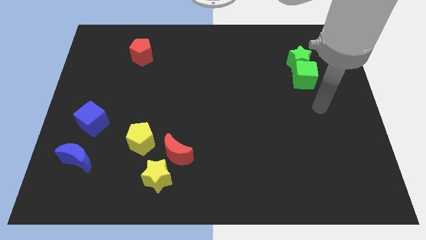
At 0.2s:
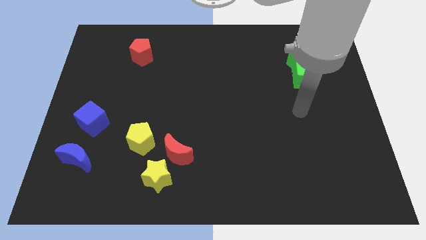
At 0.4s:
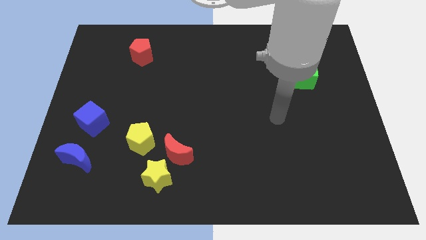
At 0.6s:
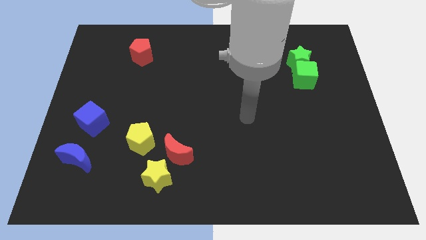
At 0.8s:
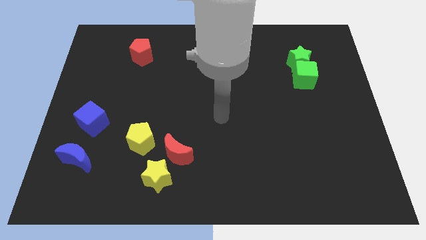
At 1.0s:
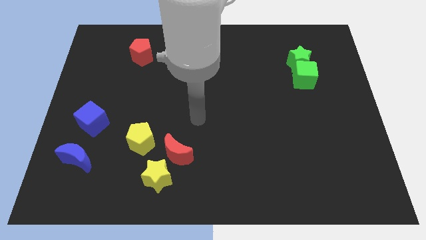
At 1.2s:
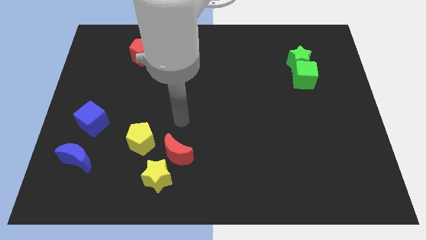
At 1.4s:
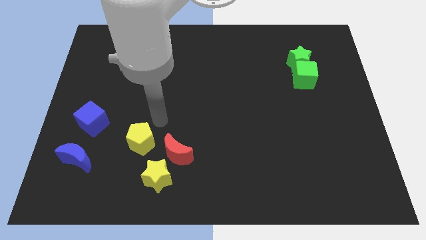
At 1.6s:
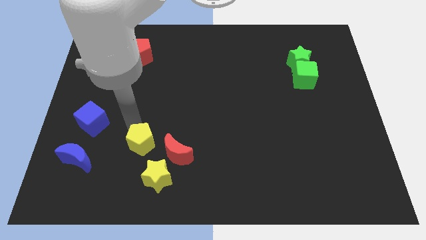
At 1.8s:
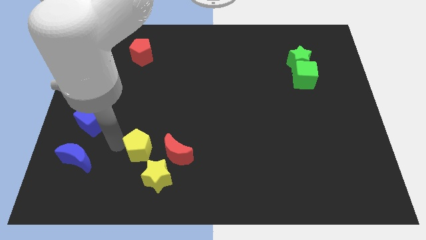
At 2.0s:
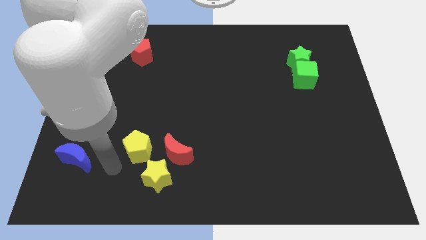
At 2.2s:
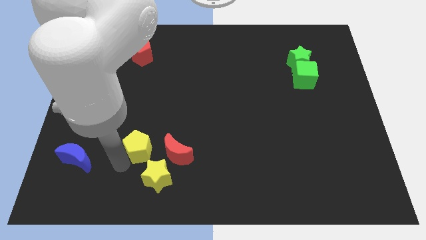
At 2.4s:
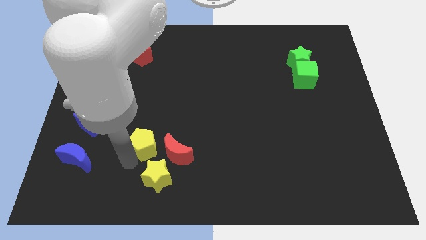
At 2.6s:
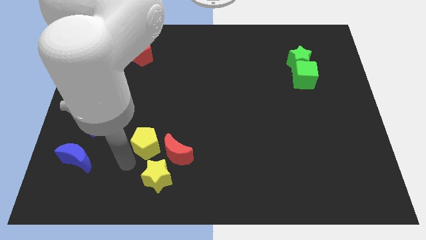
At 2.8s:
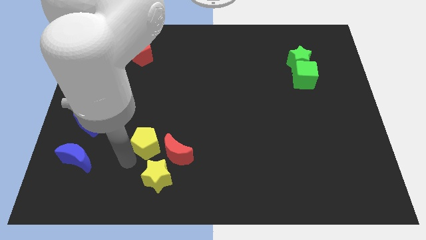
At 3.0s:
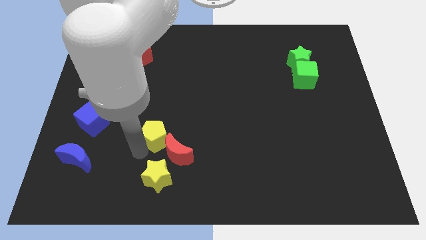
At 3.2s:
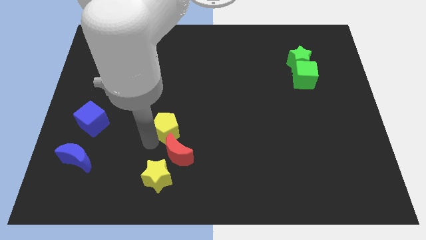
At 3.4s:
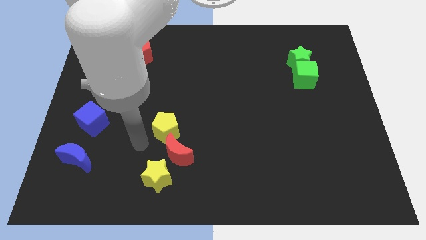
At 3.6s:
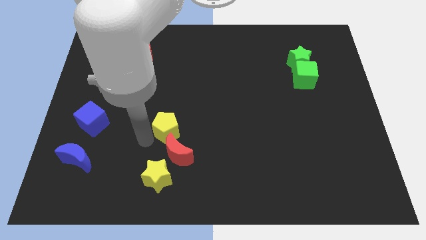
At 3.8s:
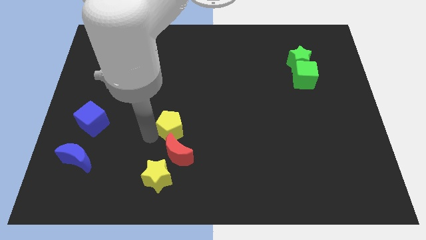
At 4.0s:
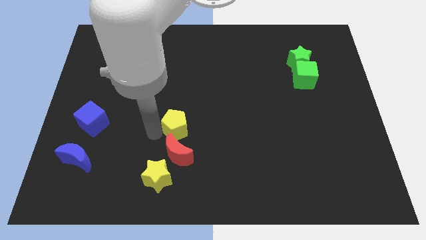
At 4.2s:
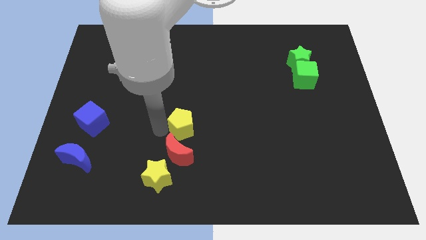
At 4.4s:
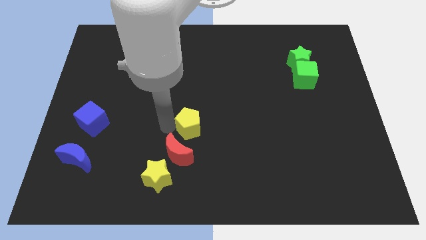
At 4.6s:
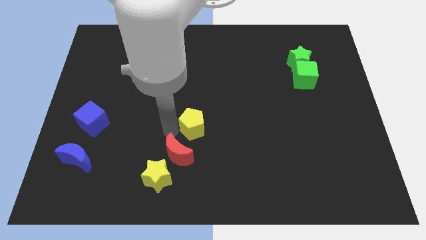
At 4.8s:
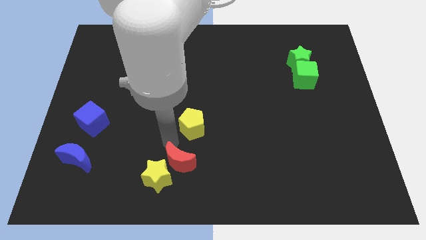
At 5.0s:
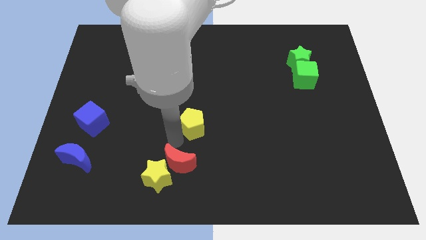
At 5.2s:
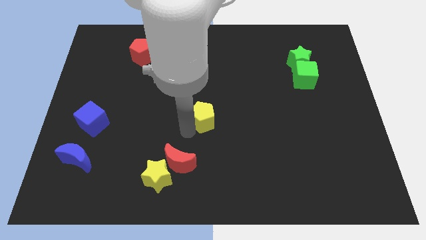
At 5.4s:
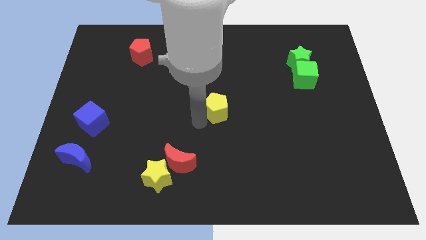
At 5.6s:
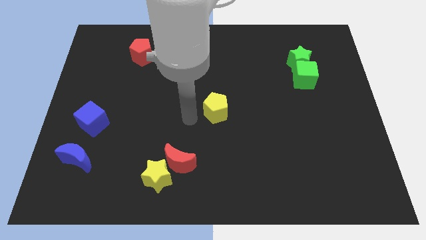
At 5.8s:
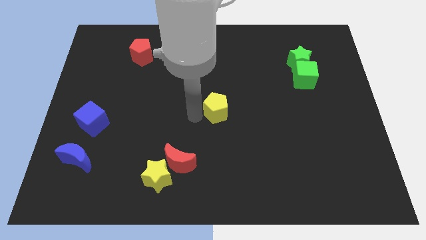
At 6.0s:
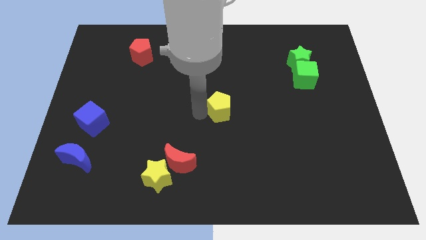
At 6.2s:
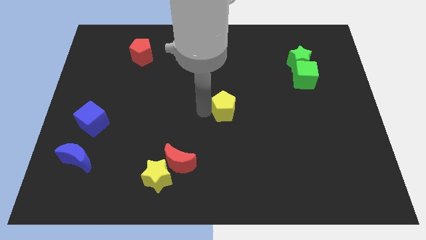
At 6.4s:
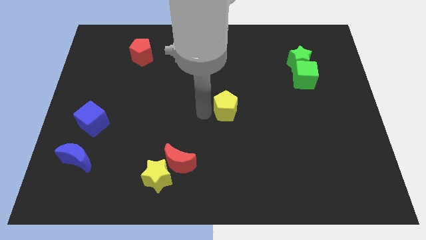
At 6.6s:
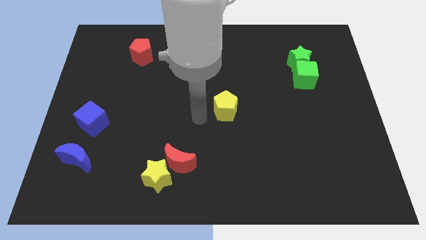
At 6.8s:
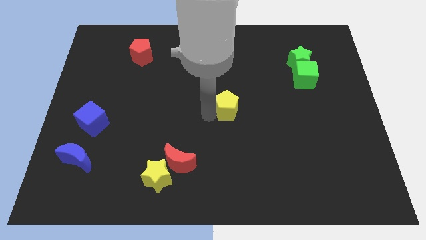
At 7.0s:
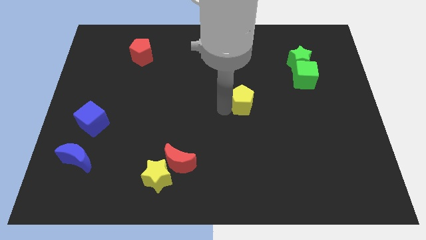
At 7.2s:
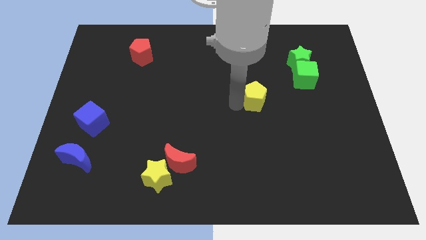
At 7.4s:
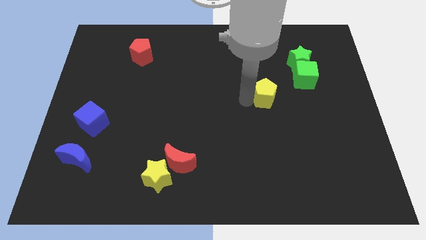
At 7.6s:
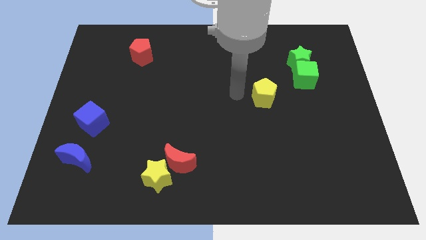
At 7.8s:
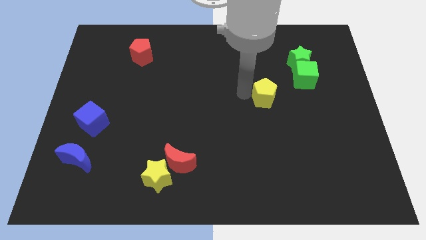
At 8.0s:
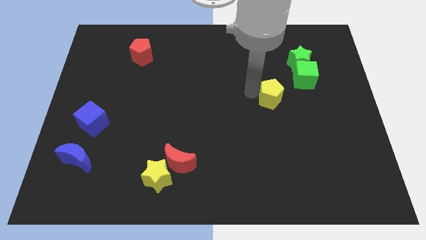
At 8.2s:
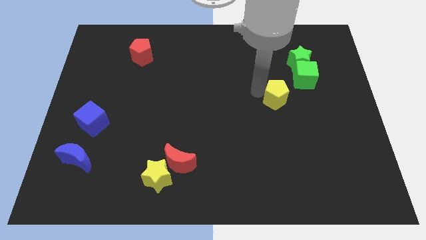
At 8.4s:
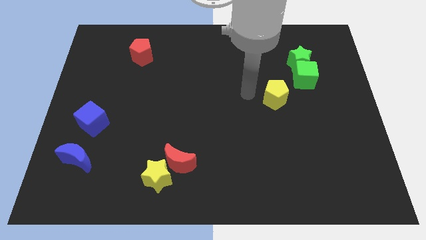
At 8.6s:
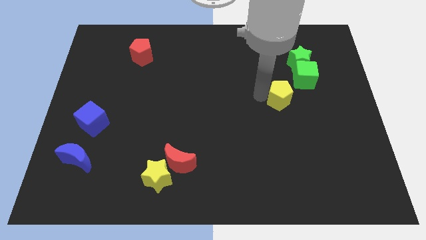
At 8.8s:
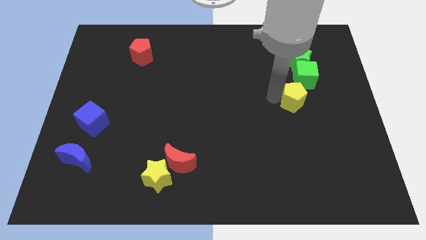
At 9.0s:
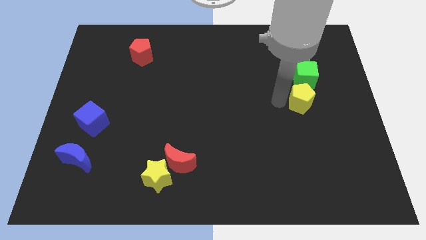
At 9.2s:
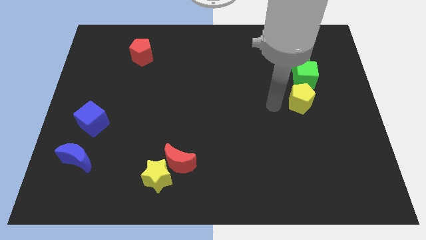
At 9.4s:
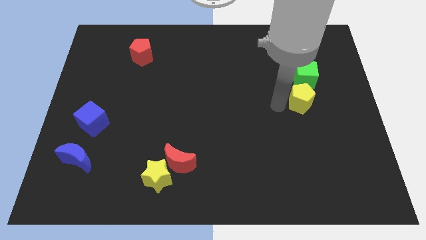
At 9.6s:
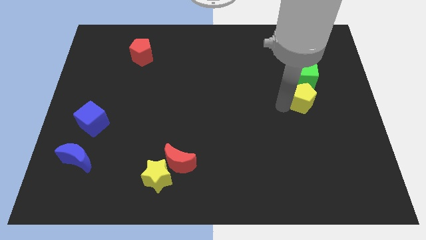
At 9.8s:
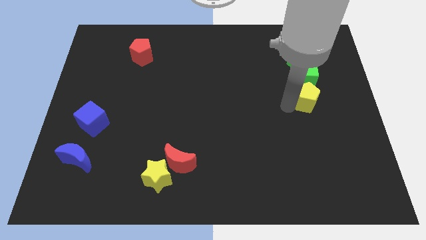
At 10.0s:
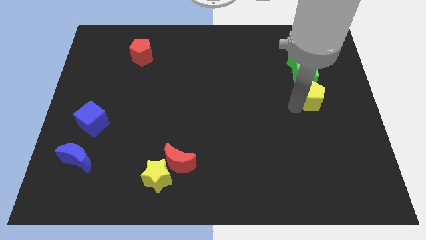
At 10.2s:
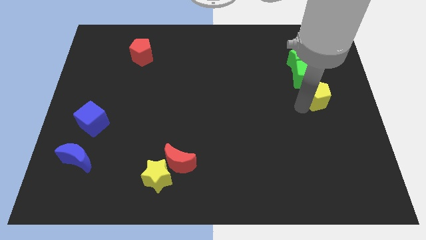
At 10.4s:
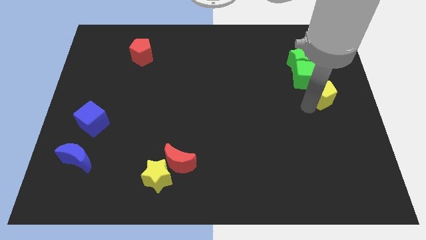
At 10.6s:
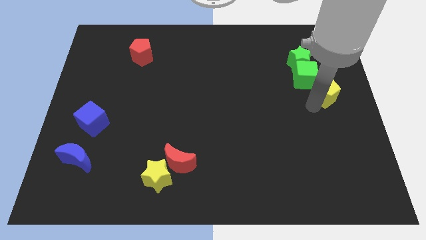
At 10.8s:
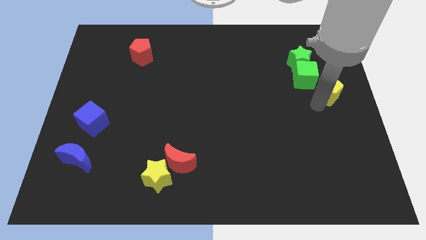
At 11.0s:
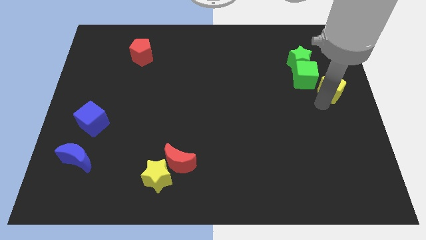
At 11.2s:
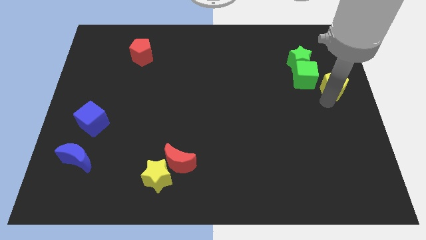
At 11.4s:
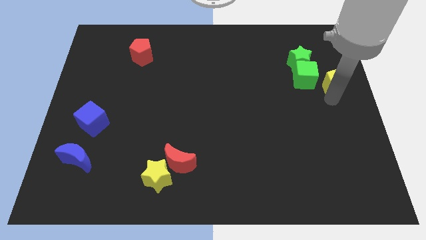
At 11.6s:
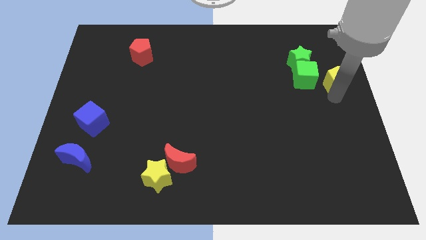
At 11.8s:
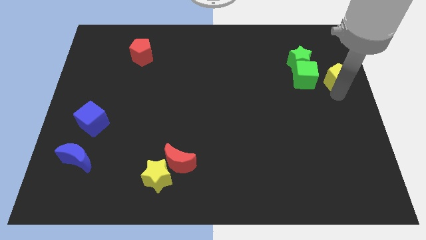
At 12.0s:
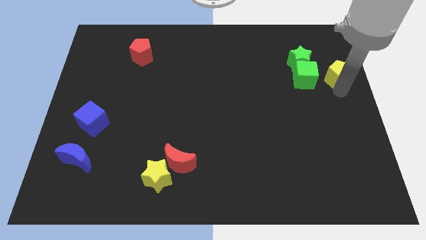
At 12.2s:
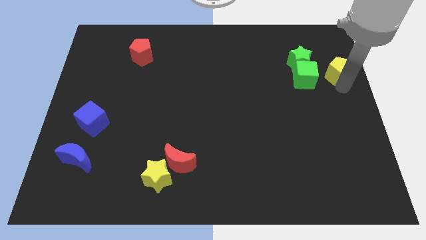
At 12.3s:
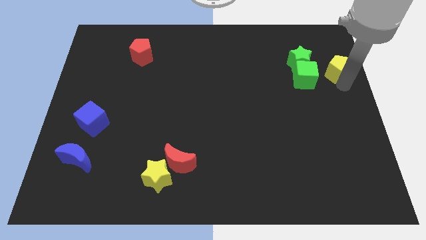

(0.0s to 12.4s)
put the yellow pentagon diagonally up and to the right of the green cube
